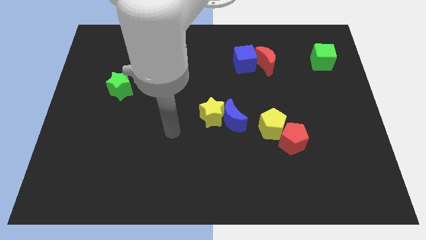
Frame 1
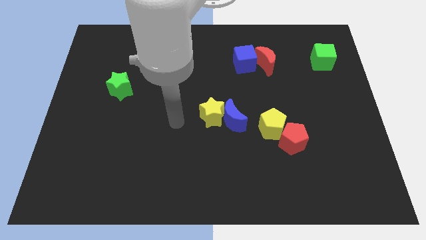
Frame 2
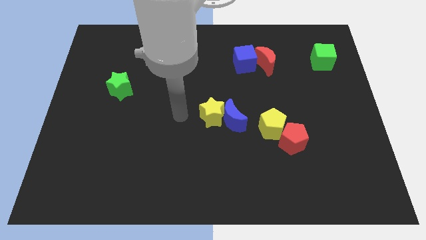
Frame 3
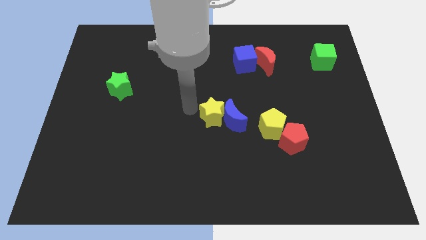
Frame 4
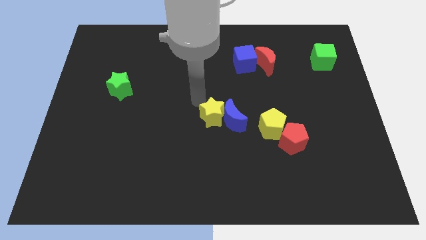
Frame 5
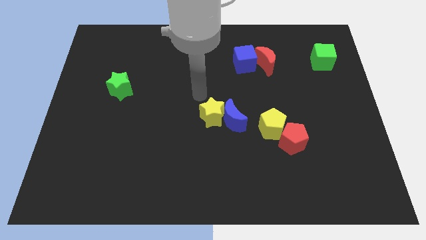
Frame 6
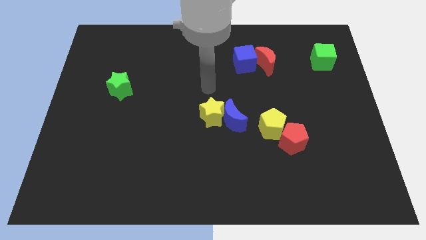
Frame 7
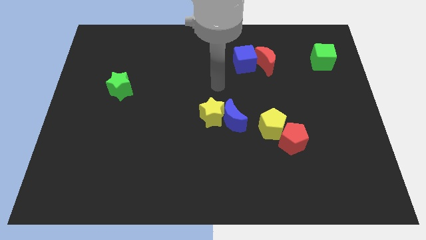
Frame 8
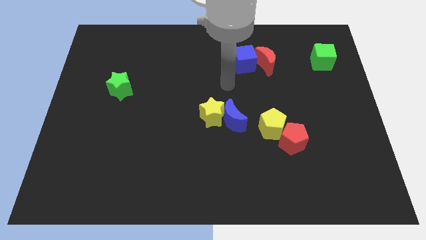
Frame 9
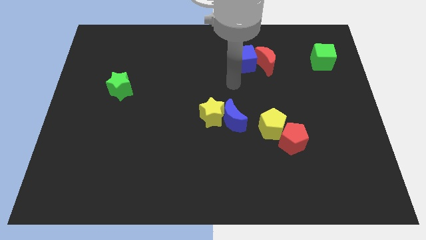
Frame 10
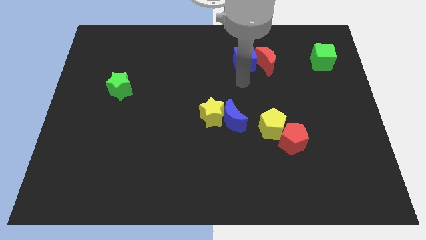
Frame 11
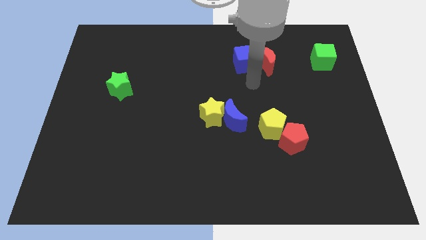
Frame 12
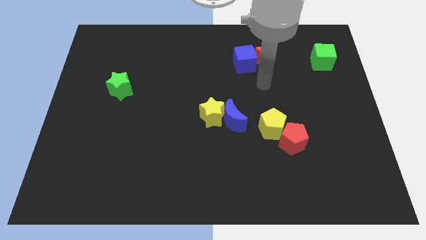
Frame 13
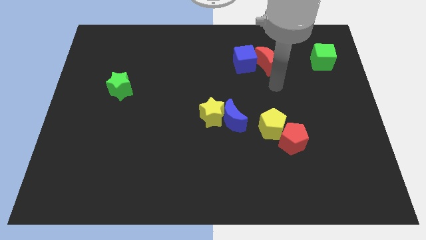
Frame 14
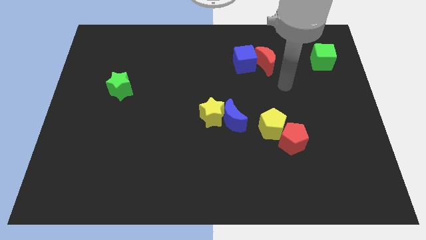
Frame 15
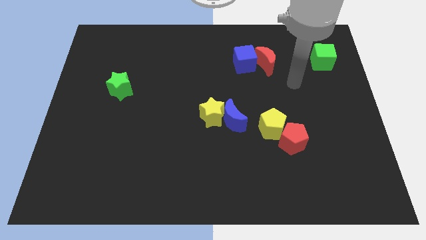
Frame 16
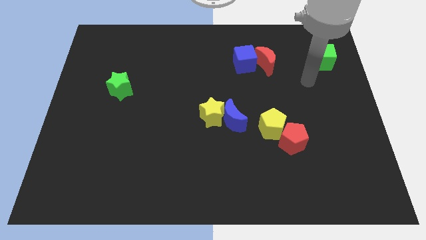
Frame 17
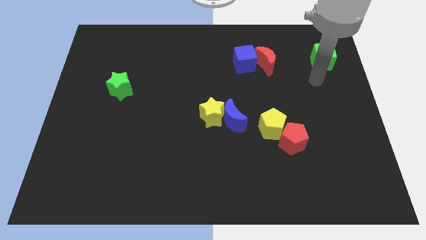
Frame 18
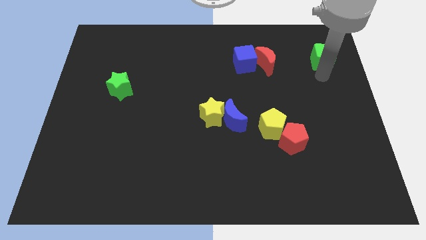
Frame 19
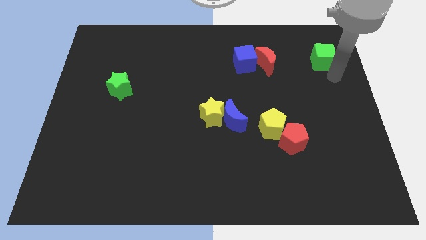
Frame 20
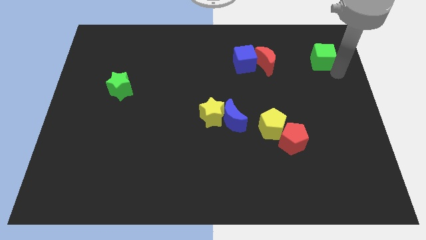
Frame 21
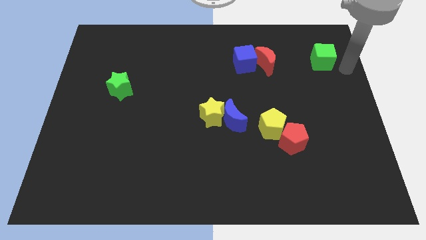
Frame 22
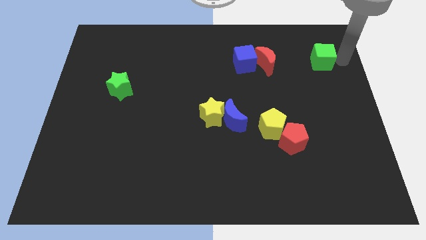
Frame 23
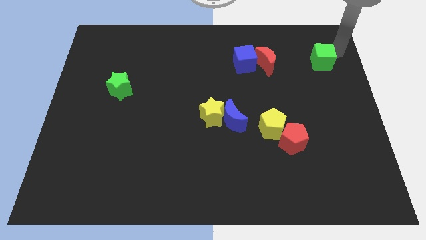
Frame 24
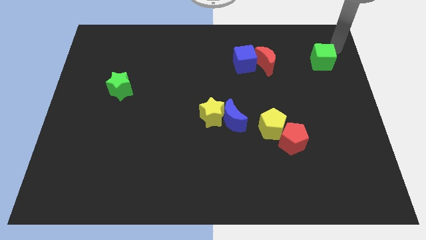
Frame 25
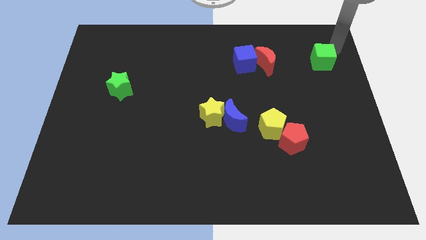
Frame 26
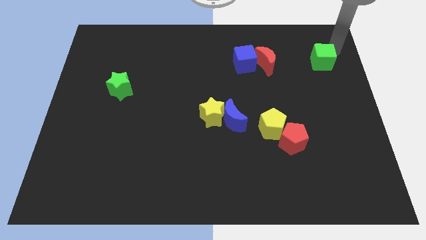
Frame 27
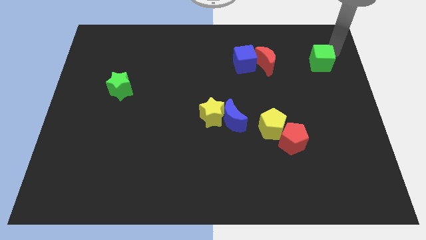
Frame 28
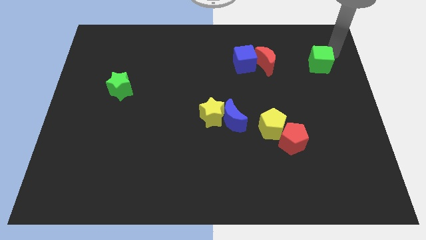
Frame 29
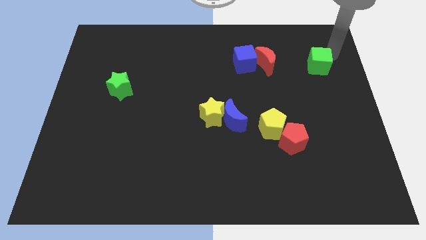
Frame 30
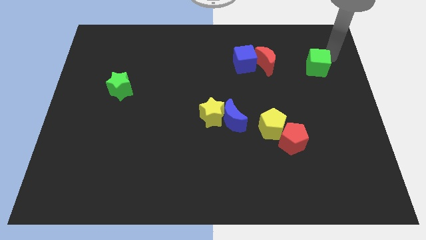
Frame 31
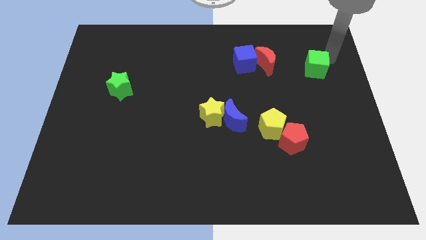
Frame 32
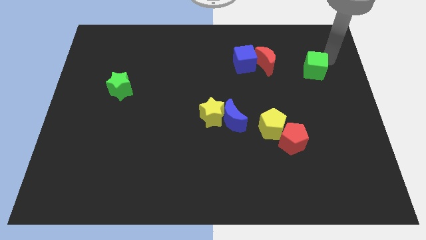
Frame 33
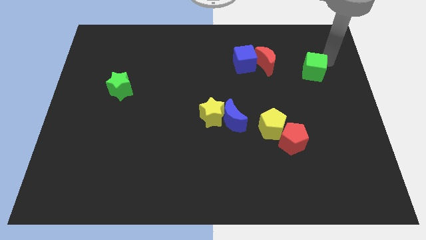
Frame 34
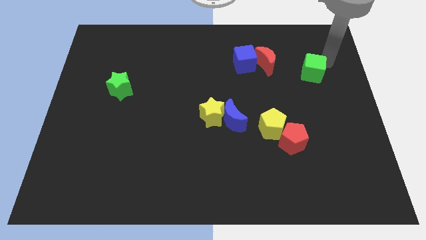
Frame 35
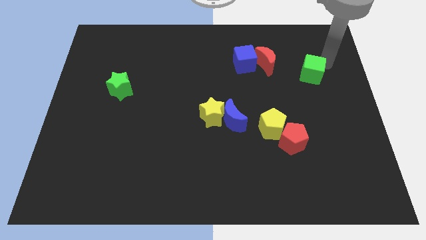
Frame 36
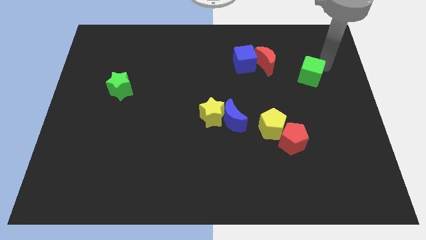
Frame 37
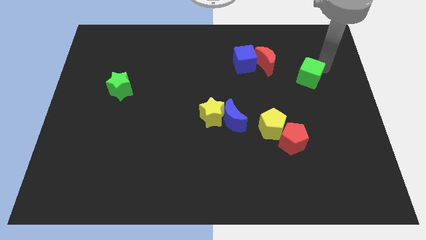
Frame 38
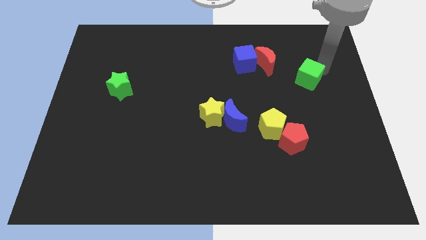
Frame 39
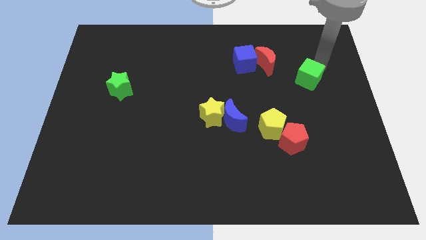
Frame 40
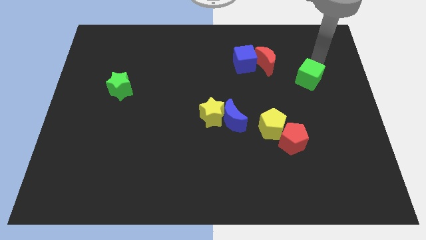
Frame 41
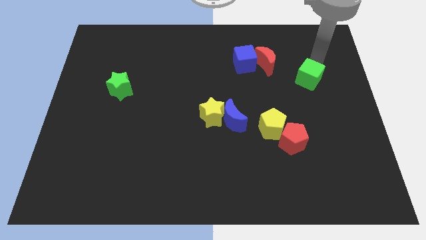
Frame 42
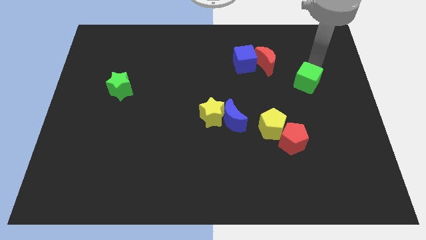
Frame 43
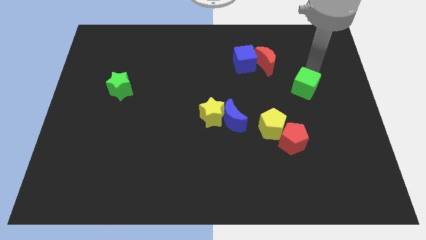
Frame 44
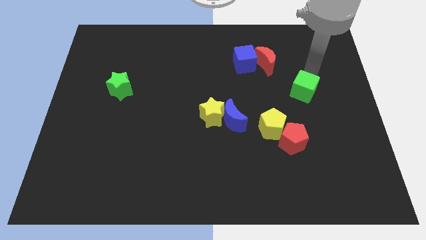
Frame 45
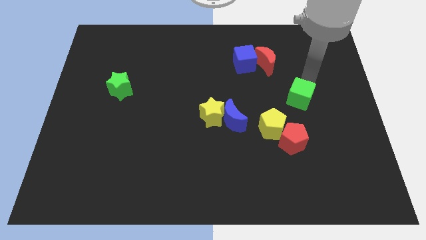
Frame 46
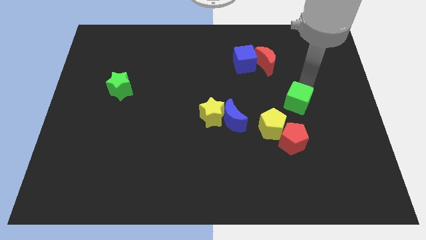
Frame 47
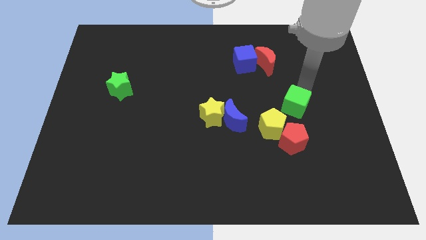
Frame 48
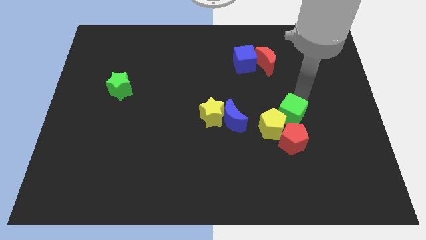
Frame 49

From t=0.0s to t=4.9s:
move the green cube close to the yellow pentagon

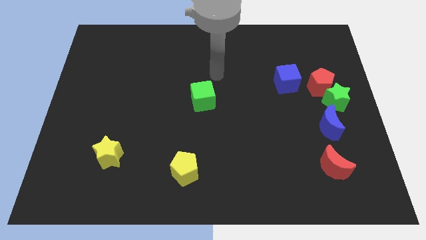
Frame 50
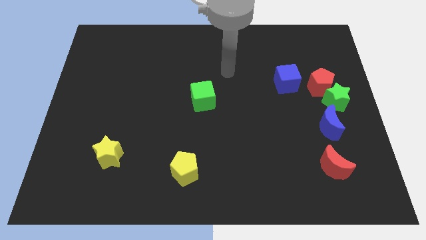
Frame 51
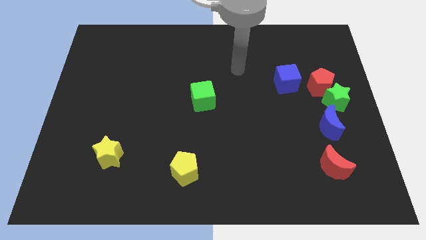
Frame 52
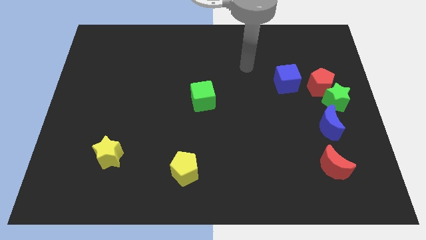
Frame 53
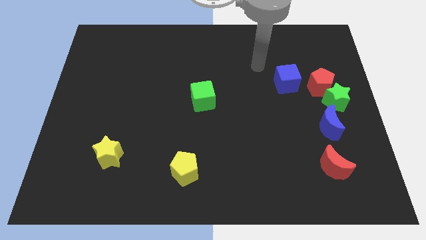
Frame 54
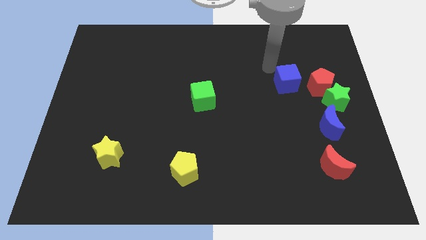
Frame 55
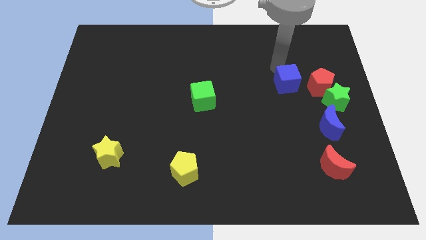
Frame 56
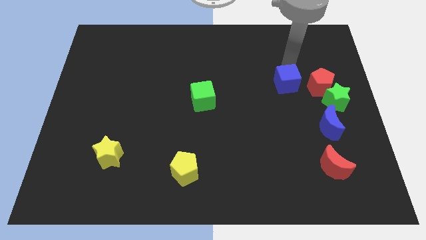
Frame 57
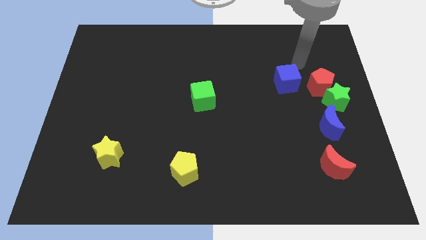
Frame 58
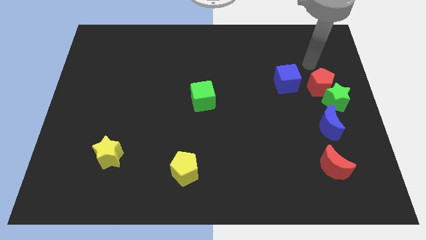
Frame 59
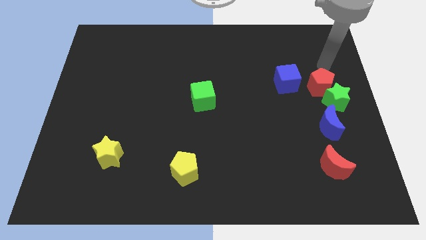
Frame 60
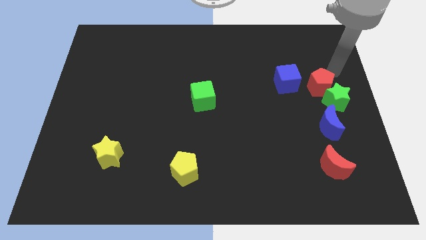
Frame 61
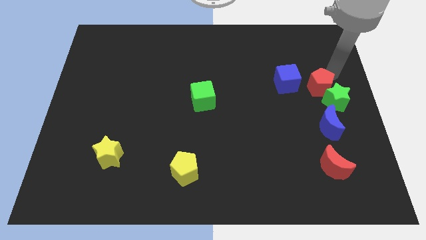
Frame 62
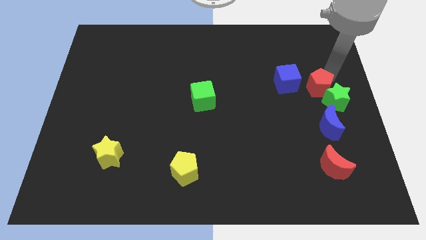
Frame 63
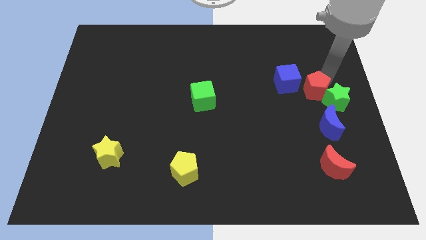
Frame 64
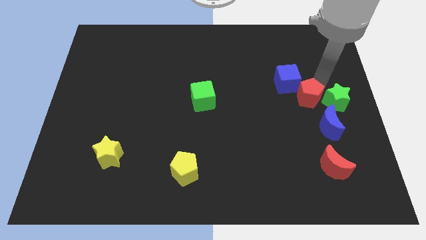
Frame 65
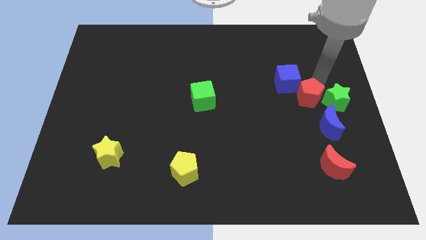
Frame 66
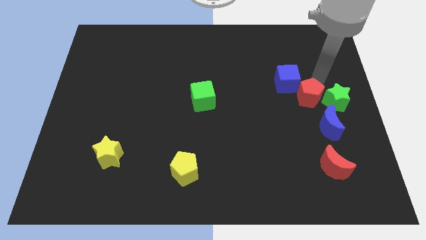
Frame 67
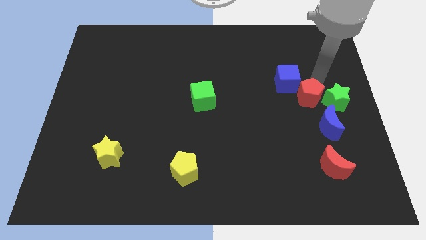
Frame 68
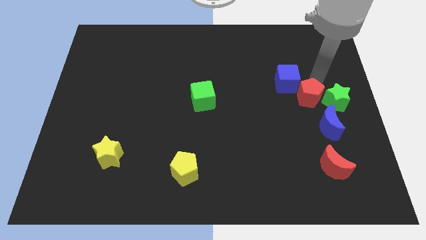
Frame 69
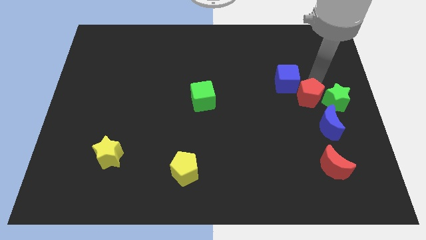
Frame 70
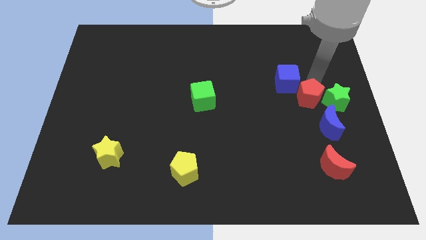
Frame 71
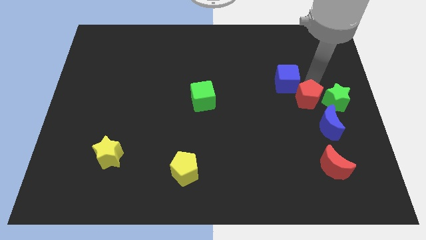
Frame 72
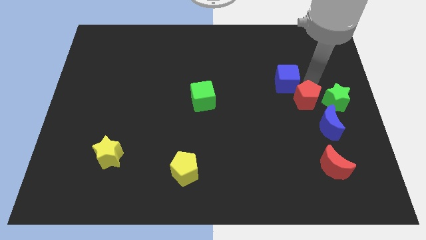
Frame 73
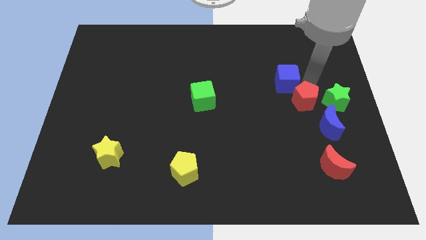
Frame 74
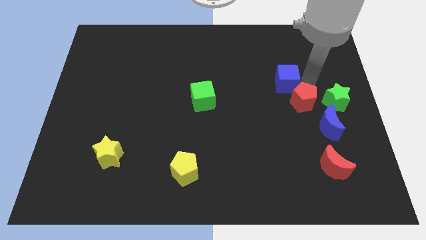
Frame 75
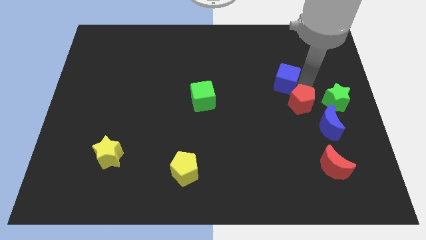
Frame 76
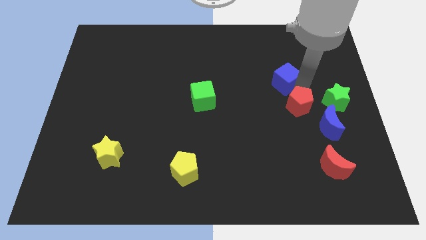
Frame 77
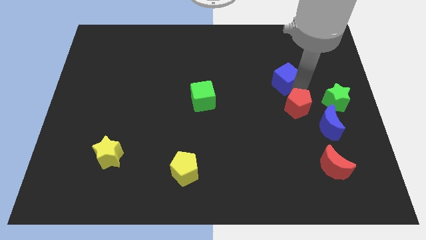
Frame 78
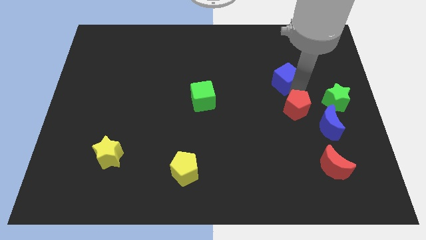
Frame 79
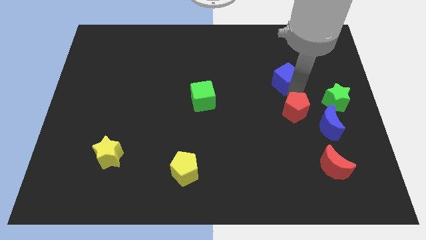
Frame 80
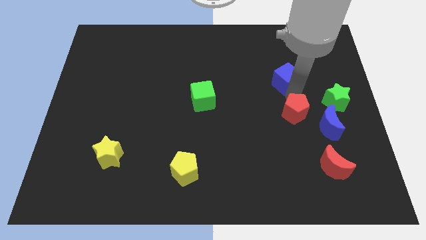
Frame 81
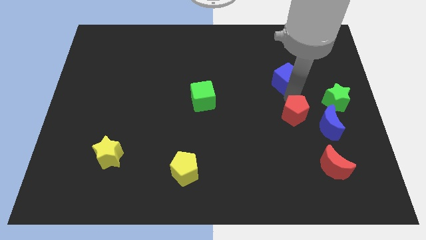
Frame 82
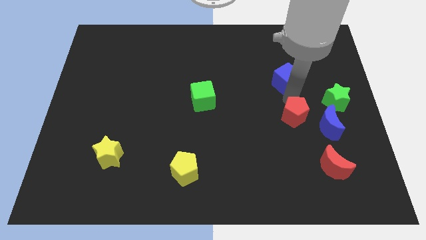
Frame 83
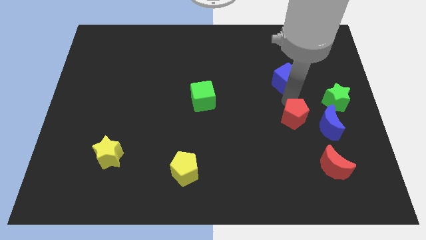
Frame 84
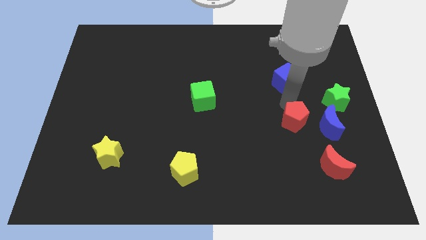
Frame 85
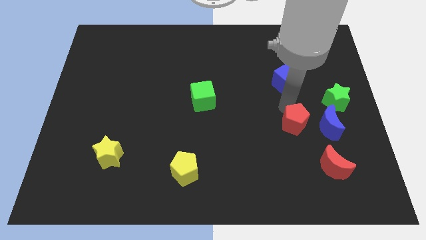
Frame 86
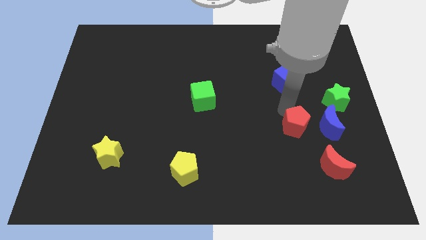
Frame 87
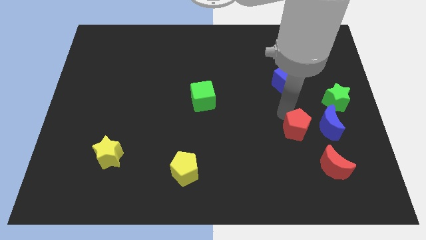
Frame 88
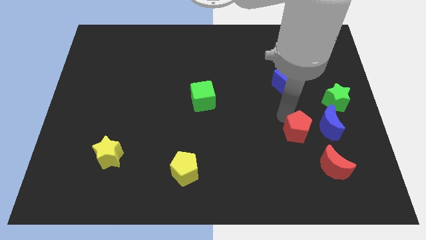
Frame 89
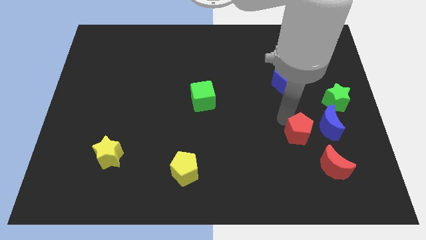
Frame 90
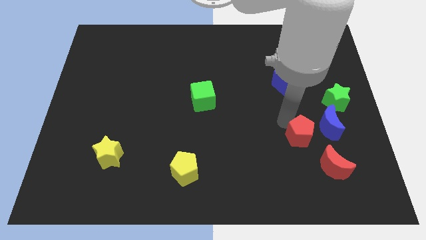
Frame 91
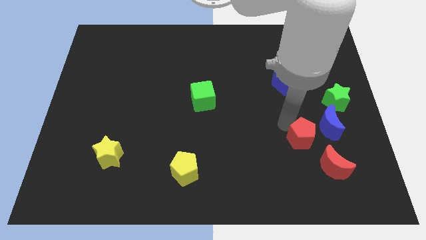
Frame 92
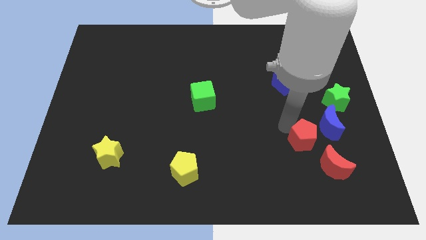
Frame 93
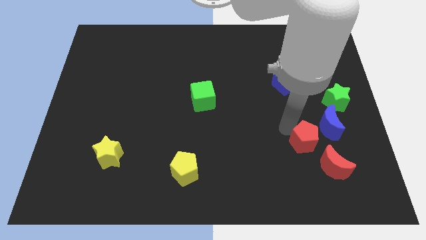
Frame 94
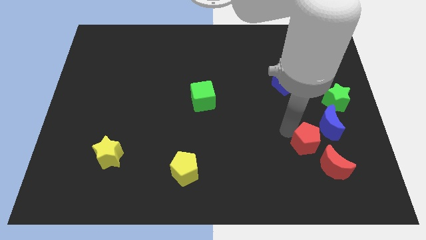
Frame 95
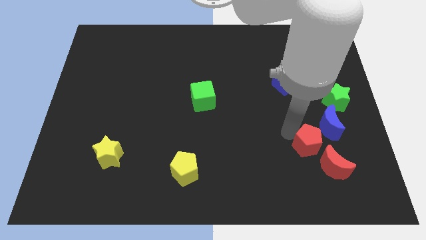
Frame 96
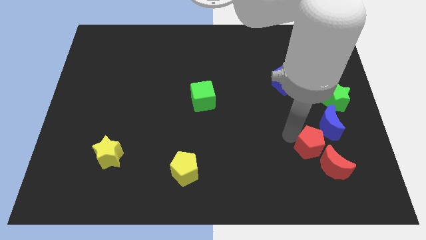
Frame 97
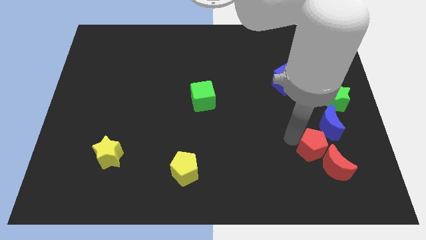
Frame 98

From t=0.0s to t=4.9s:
slide the red pentagon close to the red moon
